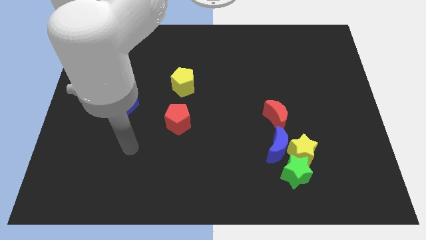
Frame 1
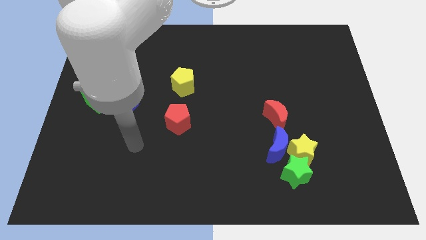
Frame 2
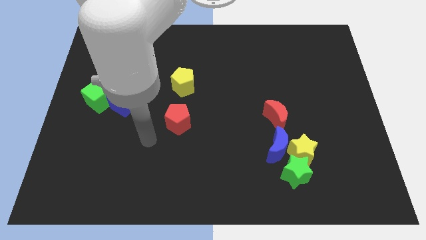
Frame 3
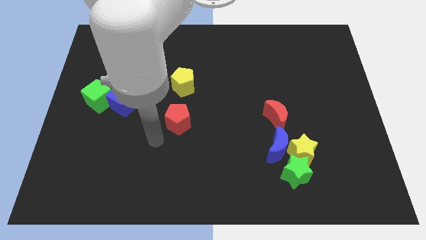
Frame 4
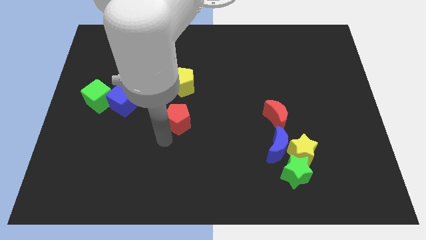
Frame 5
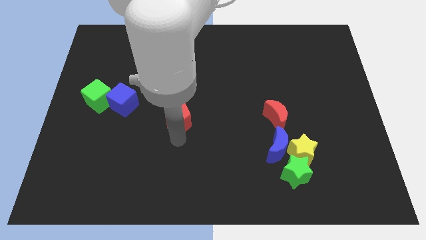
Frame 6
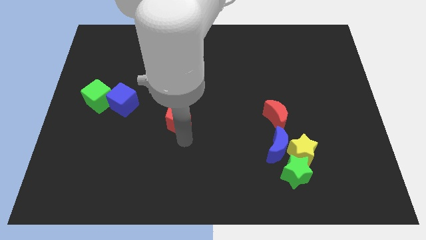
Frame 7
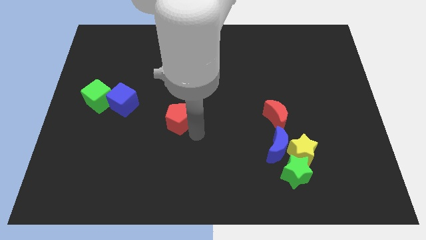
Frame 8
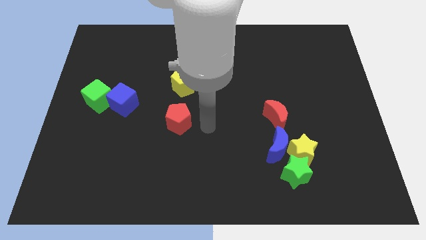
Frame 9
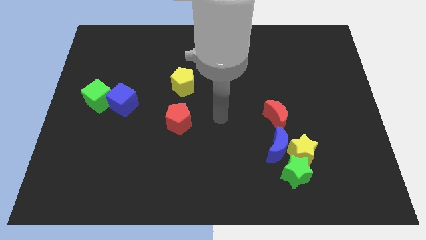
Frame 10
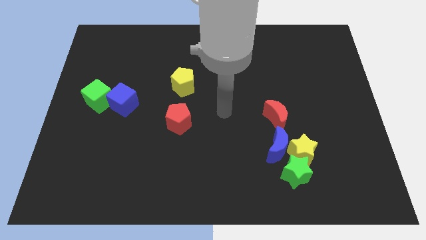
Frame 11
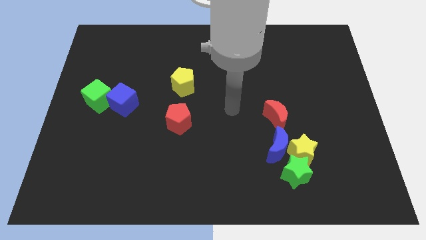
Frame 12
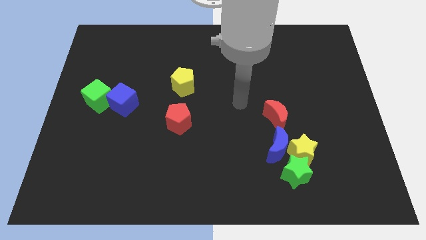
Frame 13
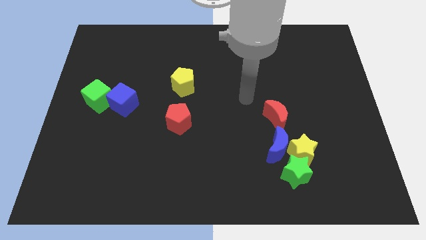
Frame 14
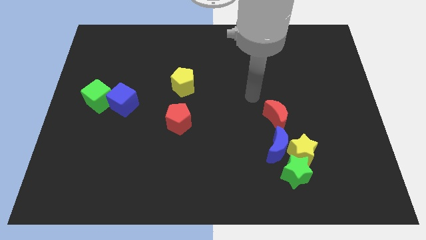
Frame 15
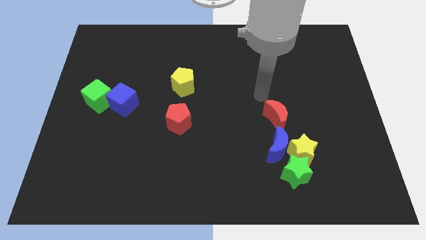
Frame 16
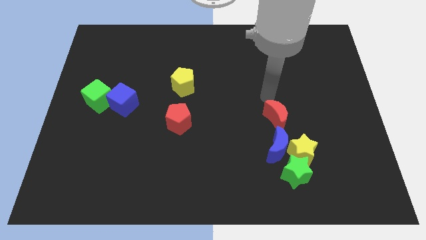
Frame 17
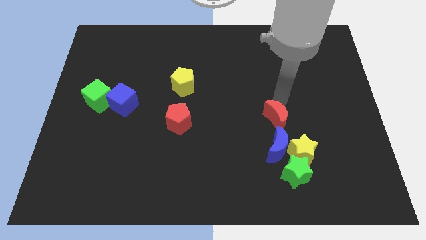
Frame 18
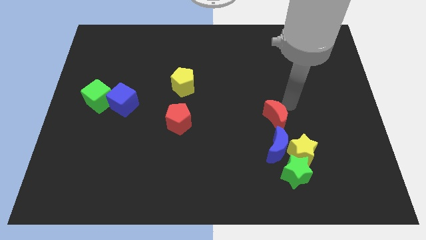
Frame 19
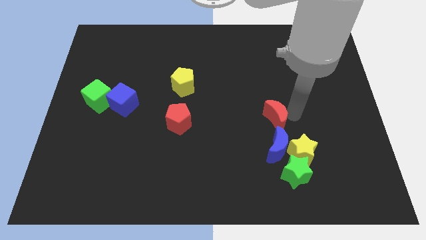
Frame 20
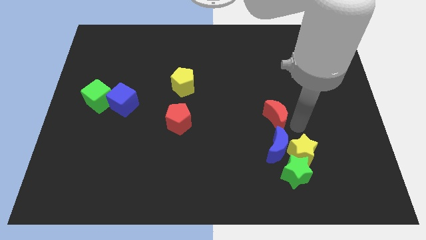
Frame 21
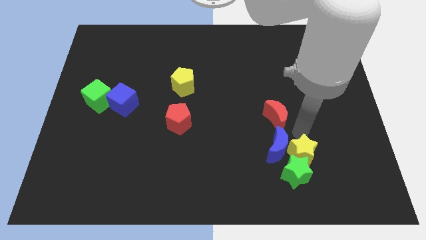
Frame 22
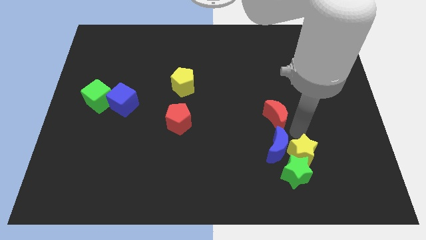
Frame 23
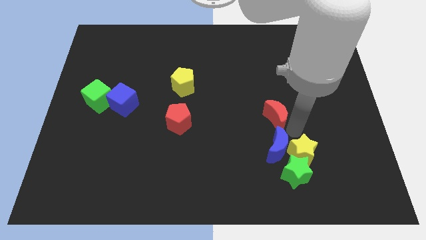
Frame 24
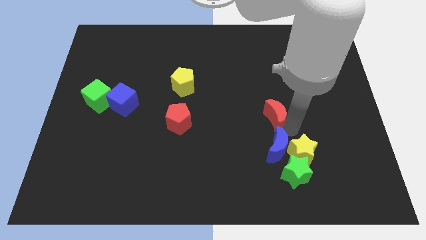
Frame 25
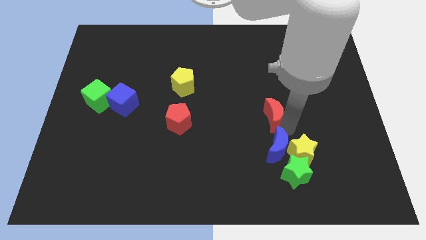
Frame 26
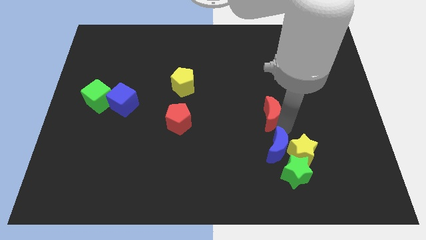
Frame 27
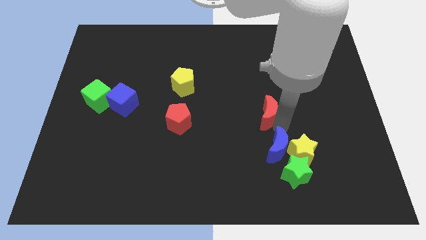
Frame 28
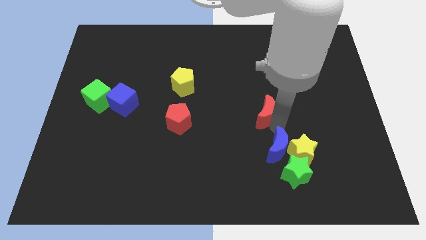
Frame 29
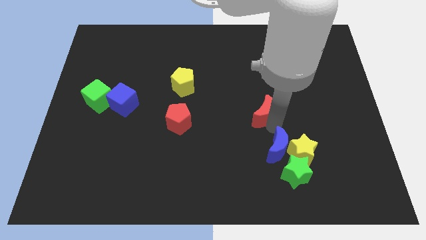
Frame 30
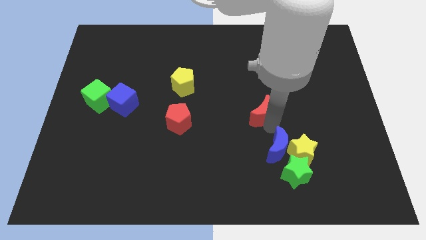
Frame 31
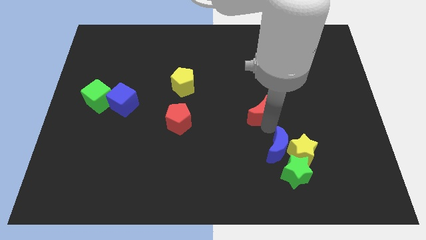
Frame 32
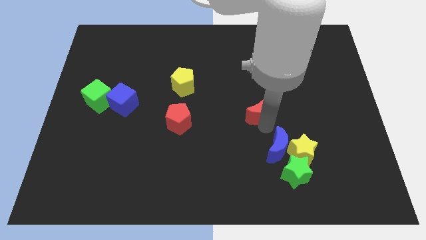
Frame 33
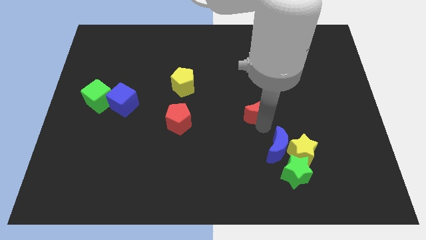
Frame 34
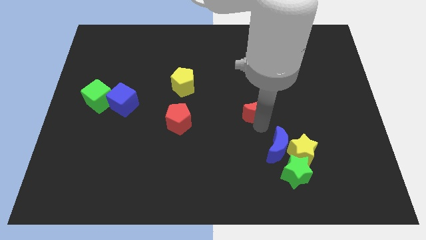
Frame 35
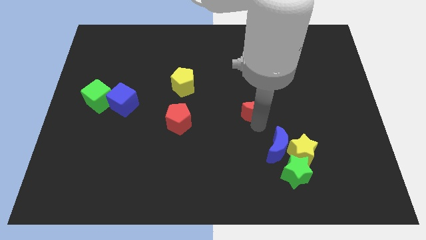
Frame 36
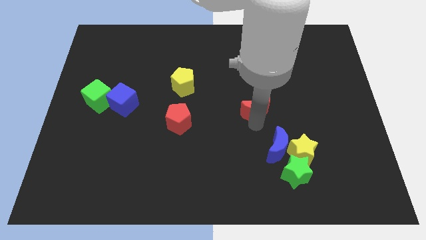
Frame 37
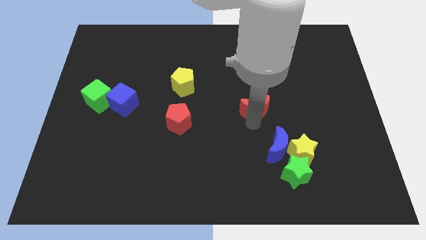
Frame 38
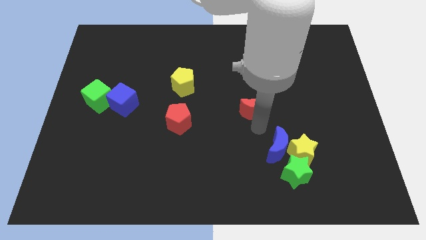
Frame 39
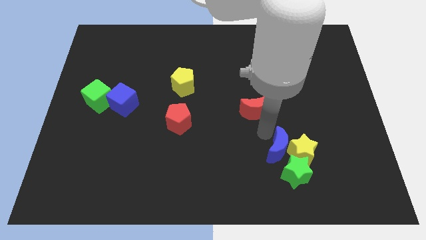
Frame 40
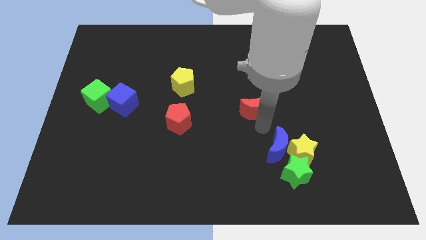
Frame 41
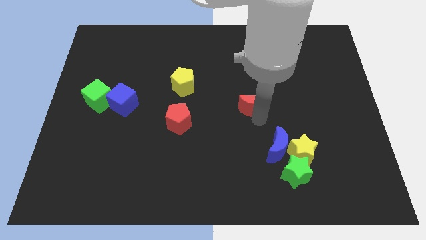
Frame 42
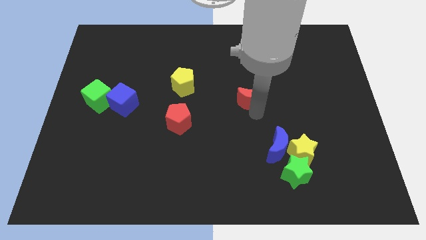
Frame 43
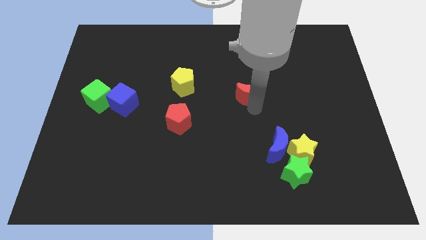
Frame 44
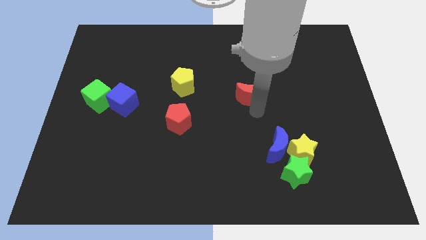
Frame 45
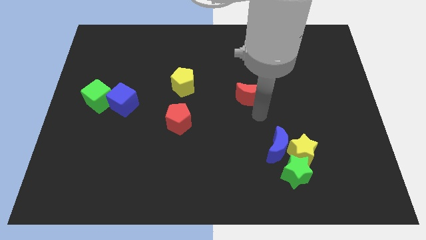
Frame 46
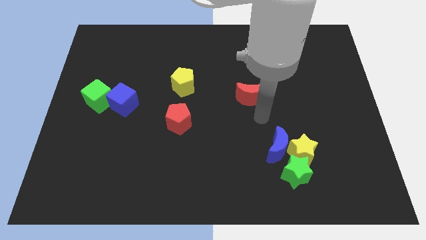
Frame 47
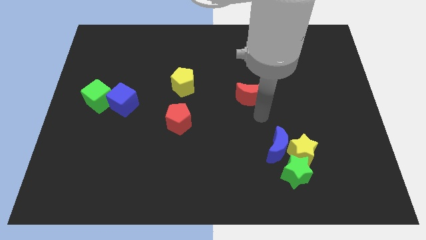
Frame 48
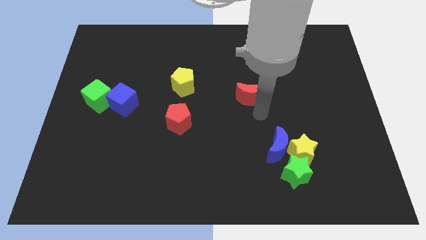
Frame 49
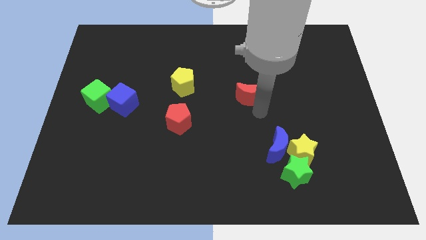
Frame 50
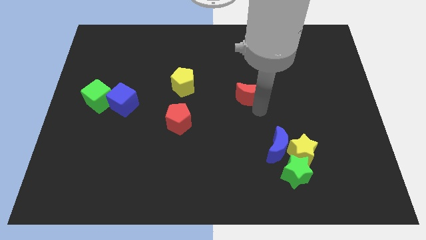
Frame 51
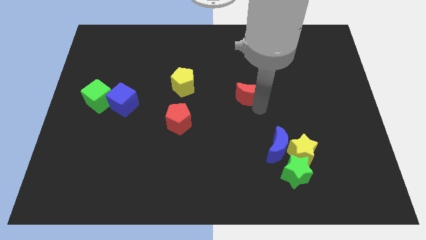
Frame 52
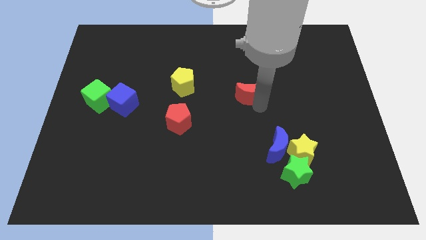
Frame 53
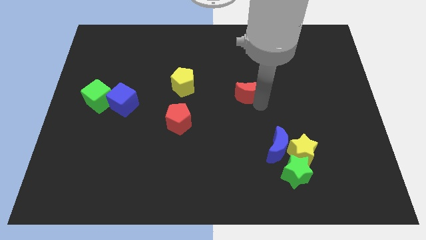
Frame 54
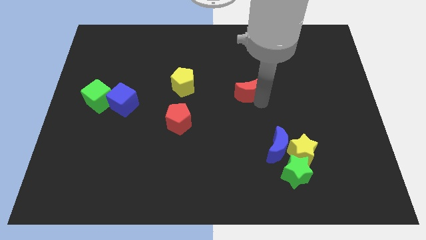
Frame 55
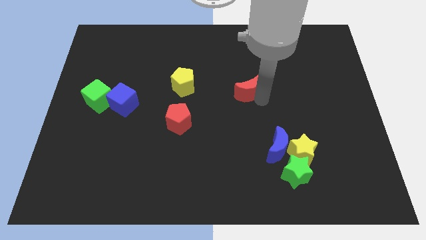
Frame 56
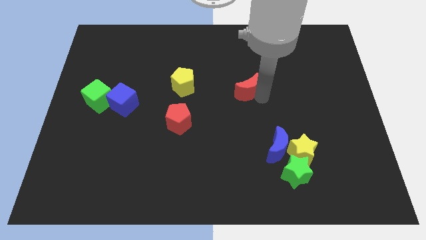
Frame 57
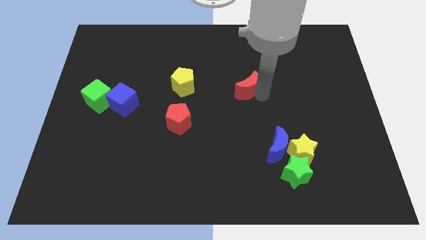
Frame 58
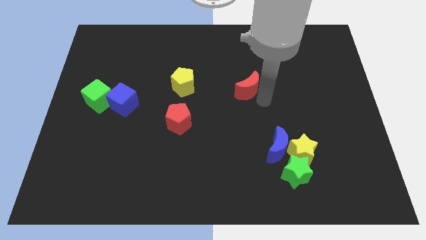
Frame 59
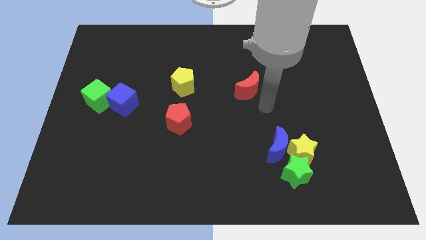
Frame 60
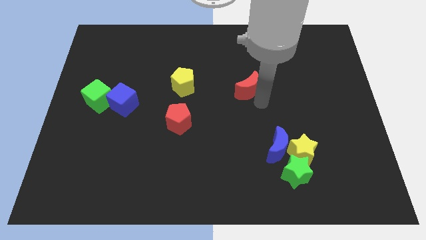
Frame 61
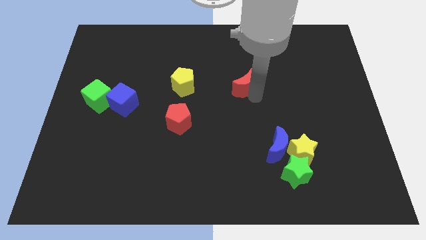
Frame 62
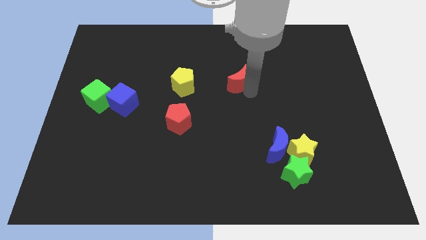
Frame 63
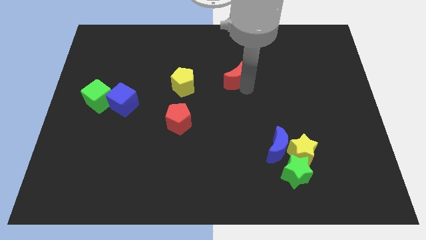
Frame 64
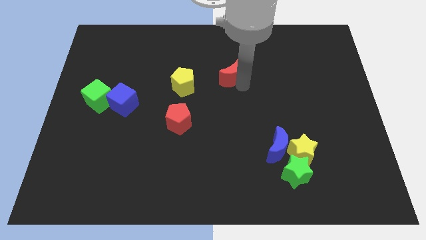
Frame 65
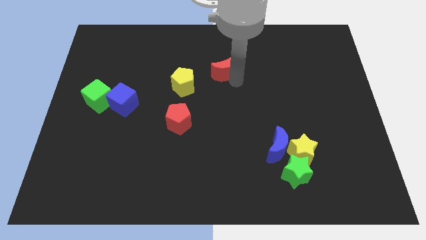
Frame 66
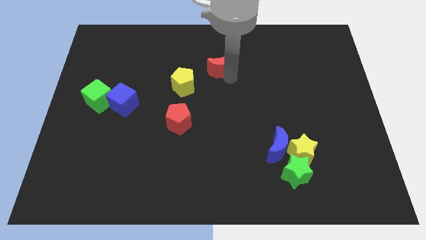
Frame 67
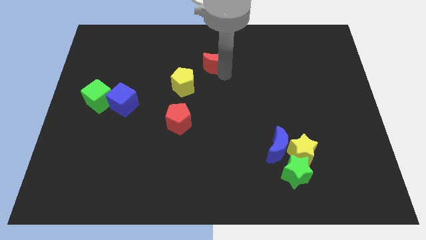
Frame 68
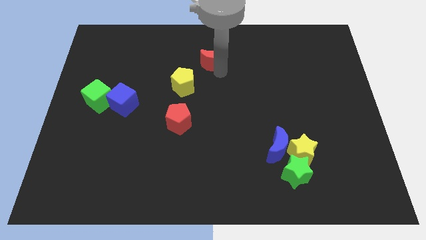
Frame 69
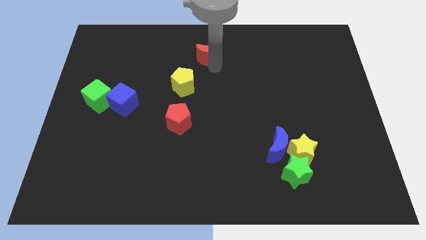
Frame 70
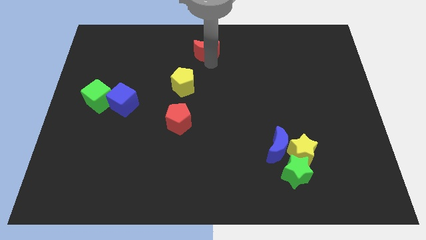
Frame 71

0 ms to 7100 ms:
put the red moon to the top side
